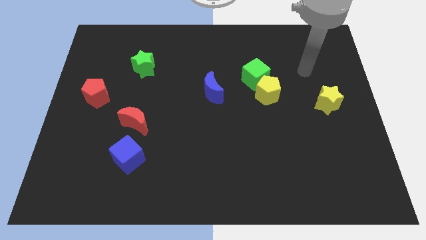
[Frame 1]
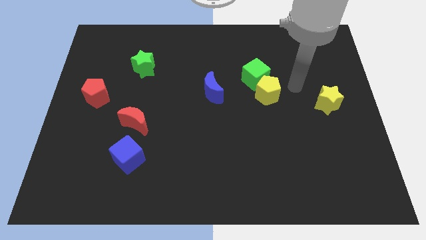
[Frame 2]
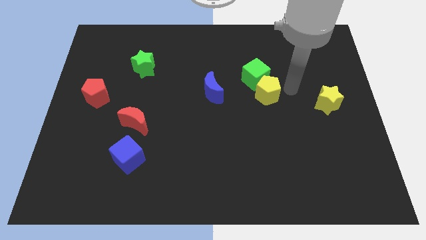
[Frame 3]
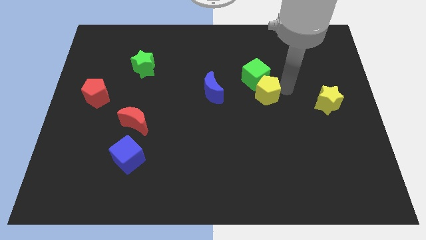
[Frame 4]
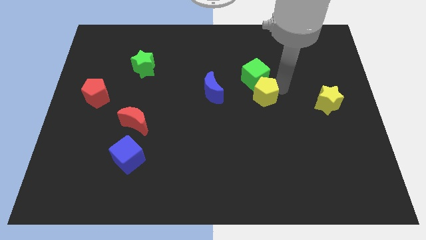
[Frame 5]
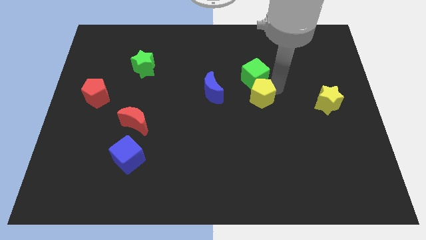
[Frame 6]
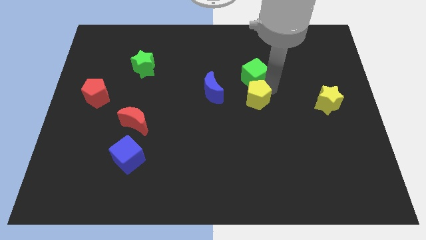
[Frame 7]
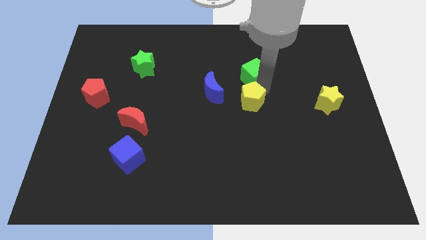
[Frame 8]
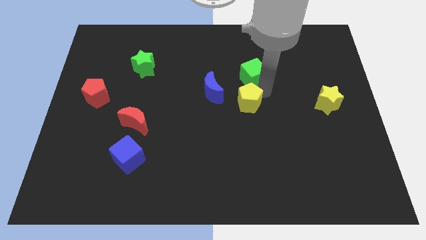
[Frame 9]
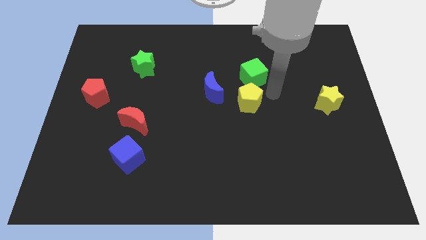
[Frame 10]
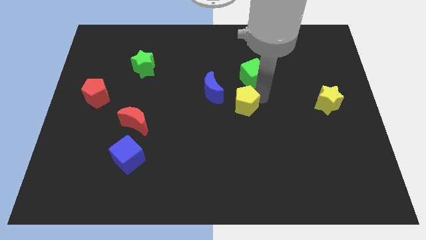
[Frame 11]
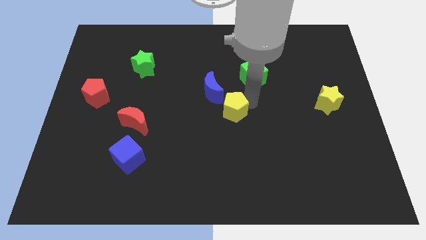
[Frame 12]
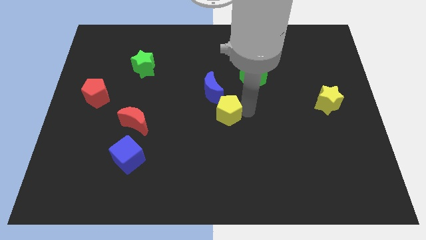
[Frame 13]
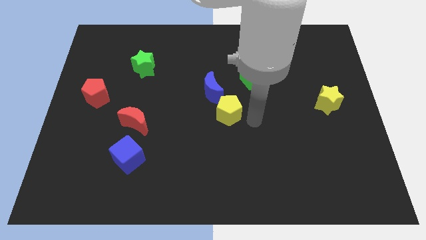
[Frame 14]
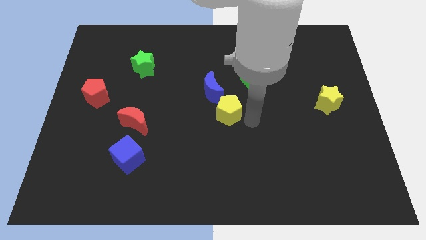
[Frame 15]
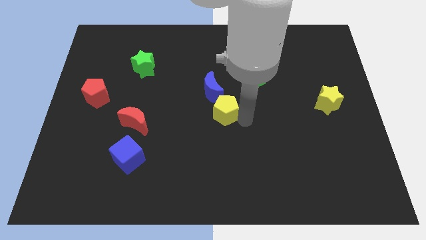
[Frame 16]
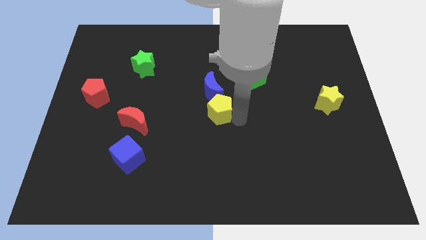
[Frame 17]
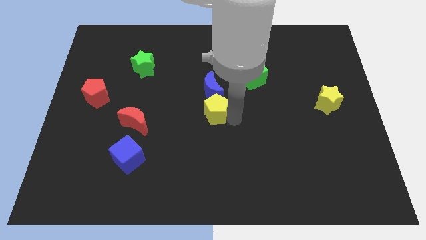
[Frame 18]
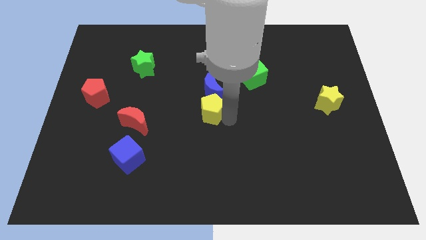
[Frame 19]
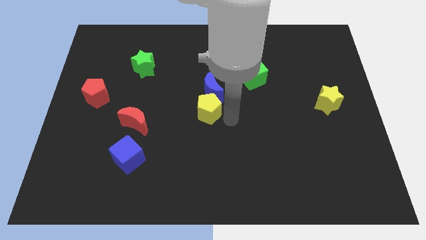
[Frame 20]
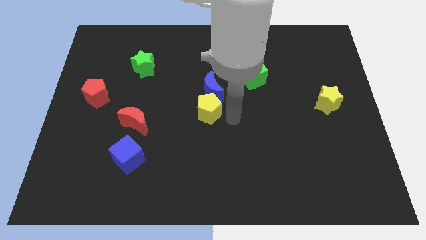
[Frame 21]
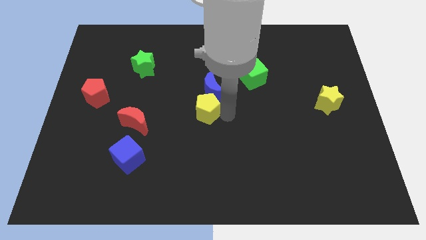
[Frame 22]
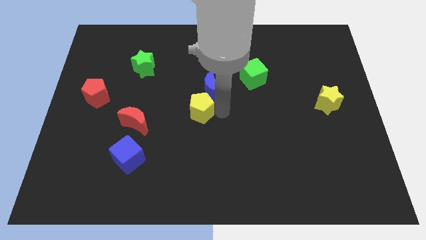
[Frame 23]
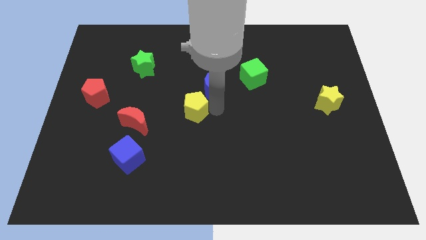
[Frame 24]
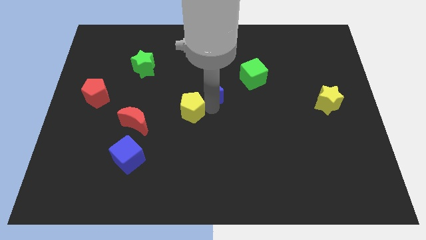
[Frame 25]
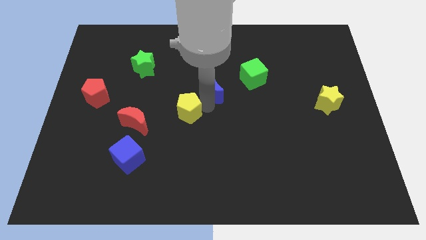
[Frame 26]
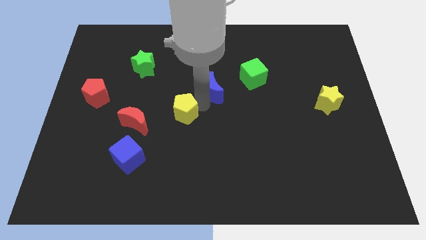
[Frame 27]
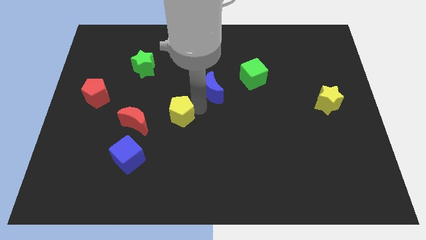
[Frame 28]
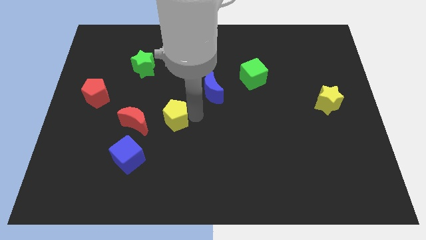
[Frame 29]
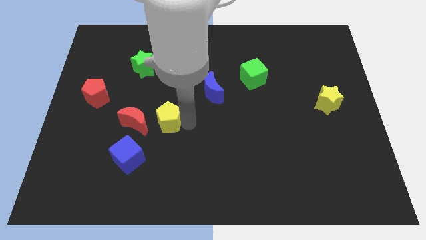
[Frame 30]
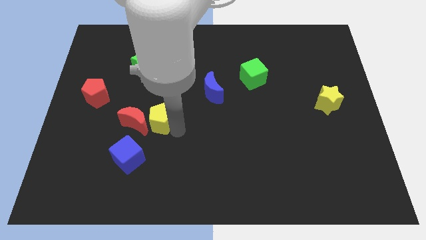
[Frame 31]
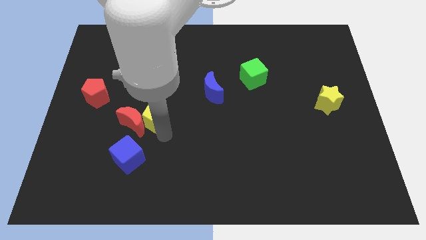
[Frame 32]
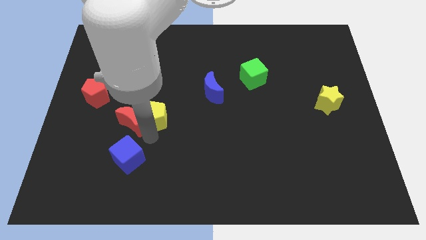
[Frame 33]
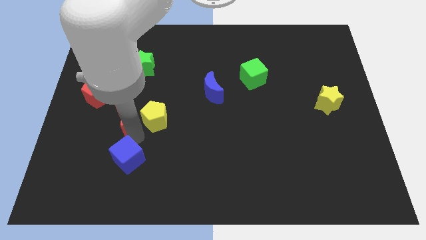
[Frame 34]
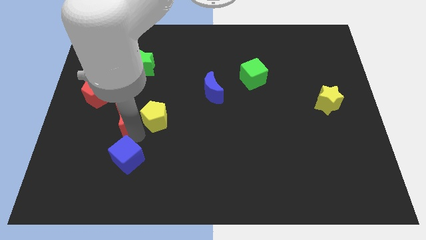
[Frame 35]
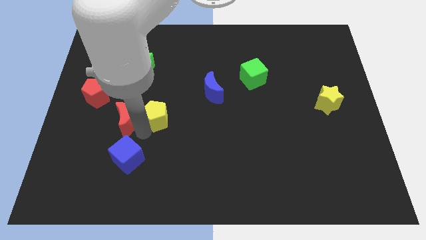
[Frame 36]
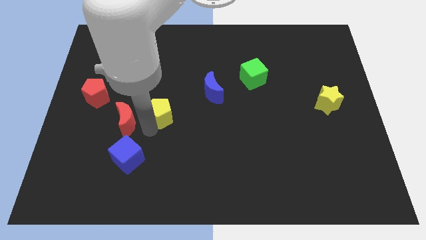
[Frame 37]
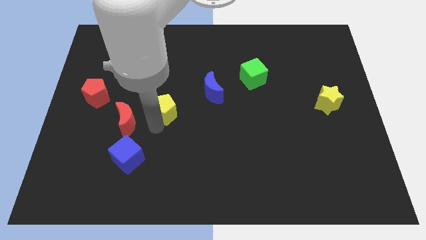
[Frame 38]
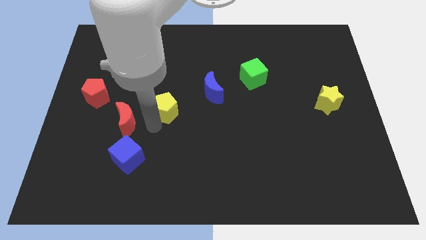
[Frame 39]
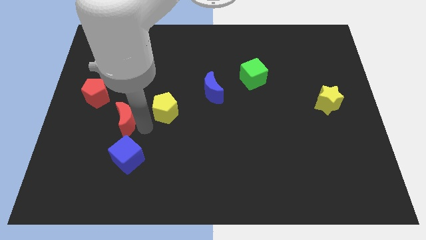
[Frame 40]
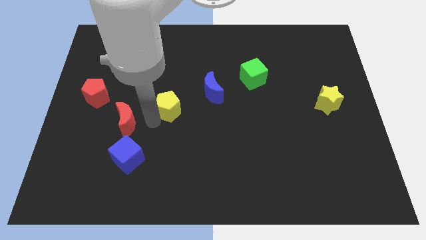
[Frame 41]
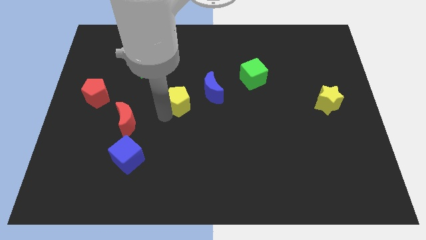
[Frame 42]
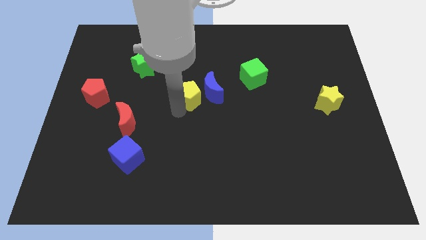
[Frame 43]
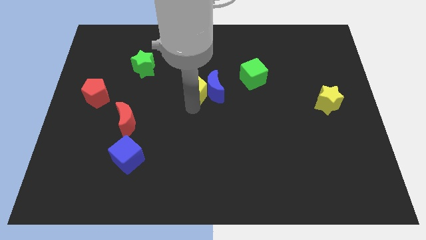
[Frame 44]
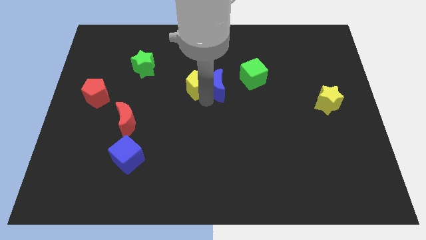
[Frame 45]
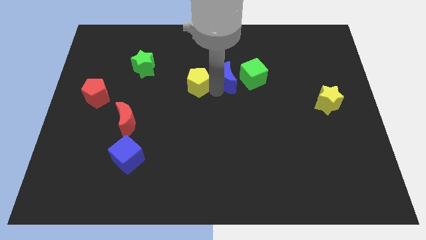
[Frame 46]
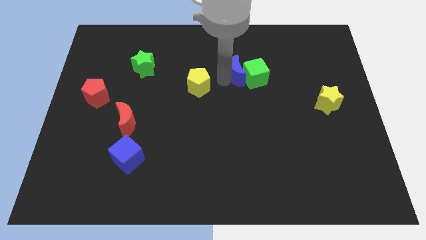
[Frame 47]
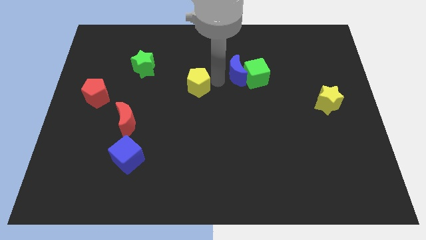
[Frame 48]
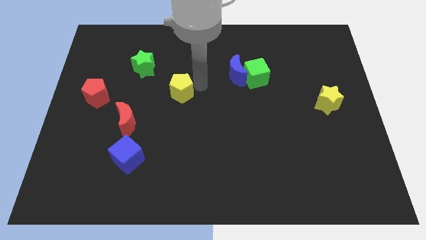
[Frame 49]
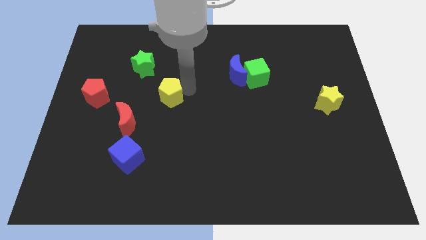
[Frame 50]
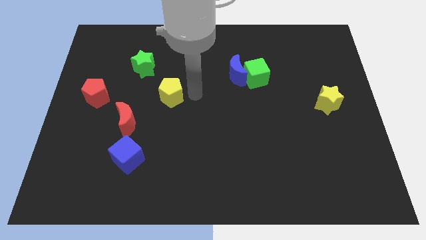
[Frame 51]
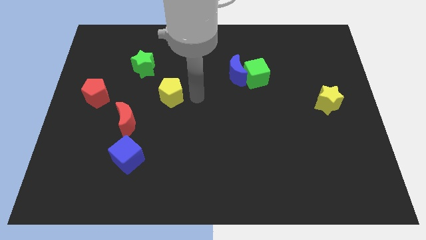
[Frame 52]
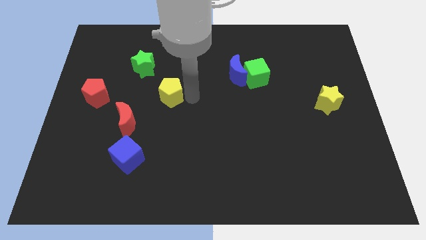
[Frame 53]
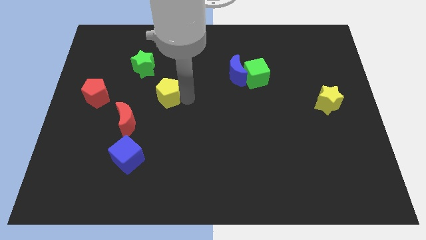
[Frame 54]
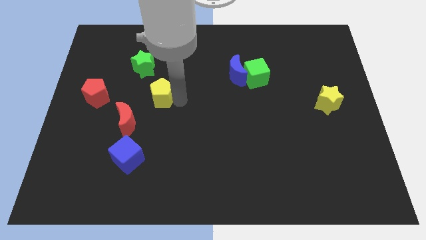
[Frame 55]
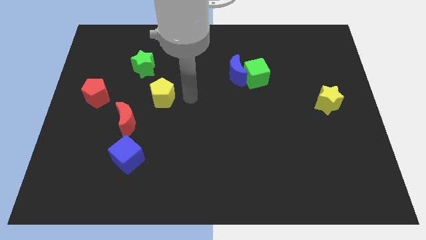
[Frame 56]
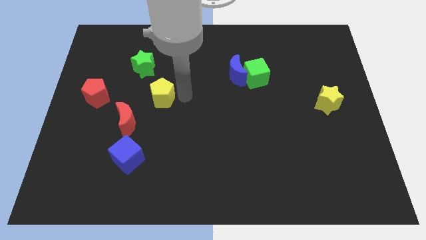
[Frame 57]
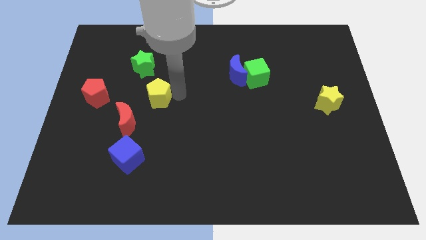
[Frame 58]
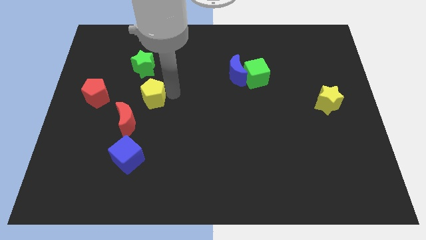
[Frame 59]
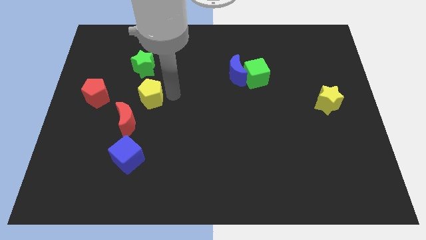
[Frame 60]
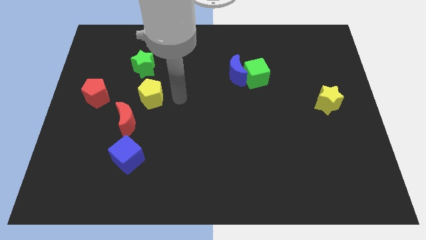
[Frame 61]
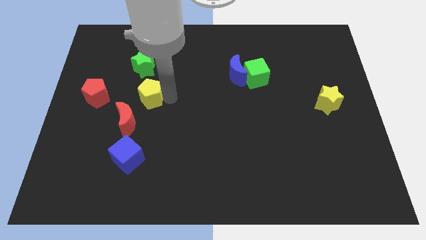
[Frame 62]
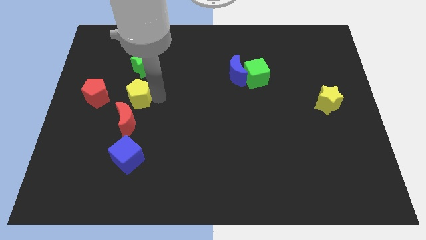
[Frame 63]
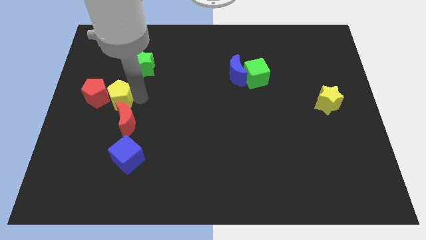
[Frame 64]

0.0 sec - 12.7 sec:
slide the yellow pentagon towards the red pentagon

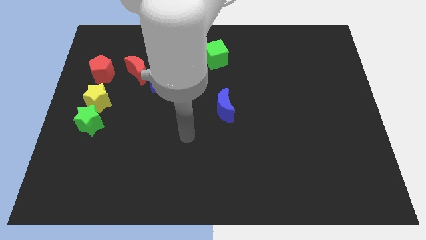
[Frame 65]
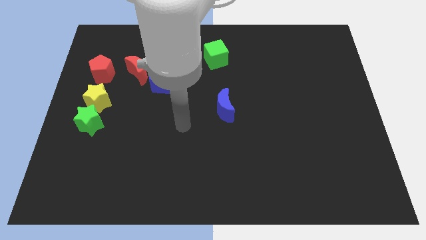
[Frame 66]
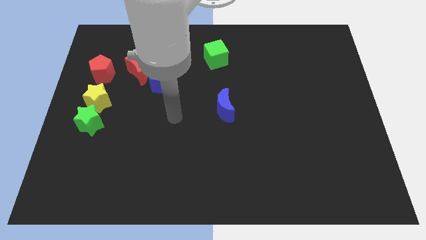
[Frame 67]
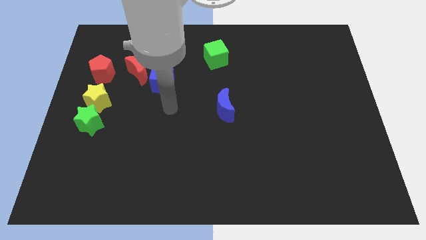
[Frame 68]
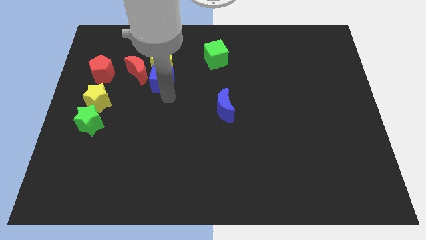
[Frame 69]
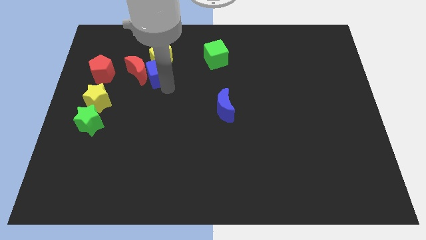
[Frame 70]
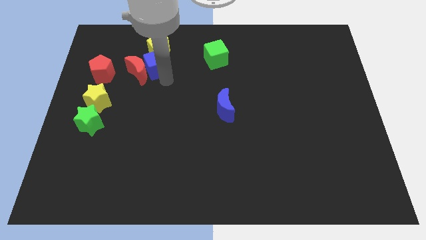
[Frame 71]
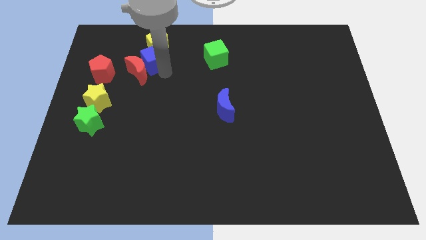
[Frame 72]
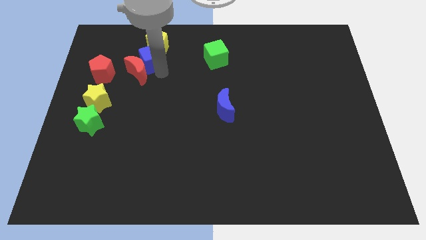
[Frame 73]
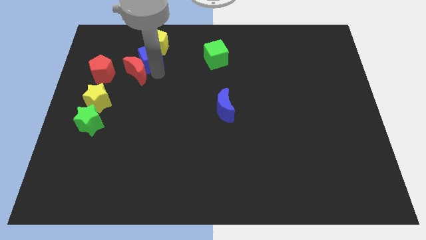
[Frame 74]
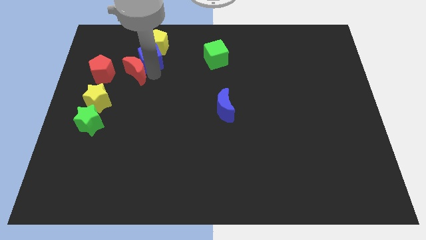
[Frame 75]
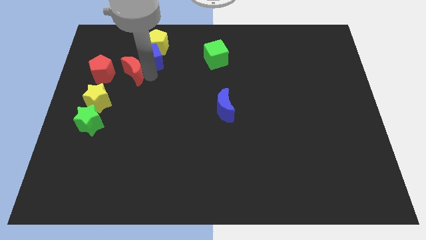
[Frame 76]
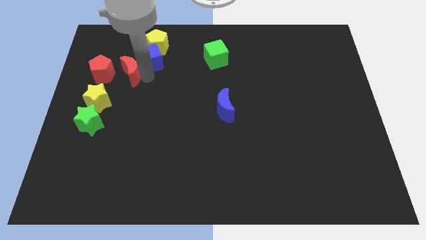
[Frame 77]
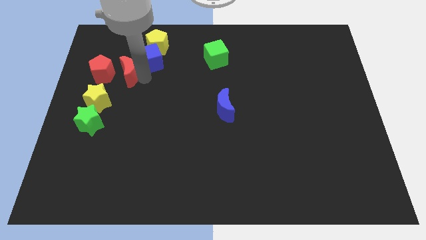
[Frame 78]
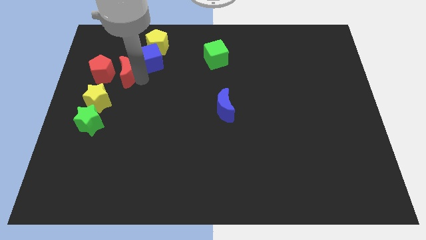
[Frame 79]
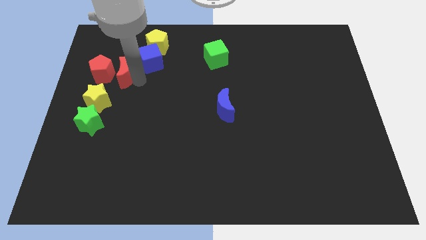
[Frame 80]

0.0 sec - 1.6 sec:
push the red moon next to the red pentagon
